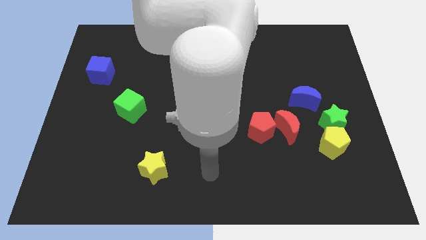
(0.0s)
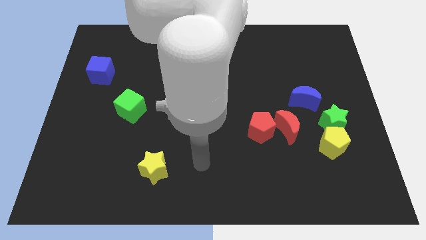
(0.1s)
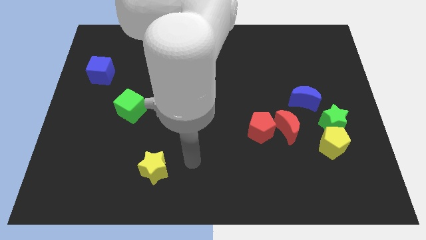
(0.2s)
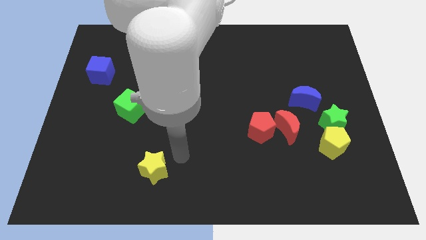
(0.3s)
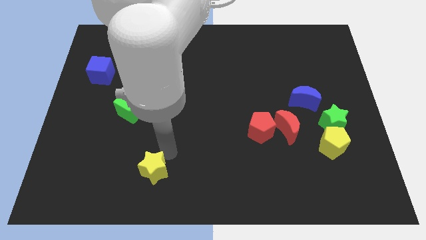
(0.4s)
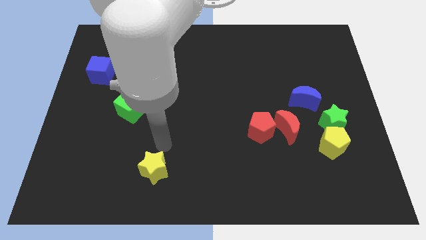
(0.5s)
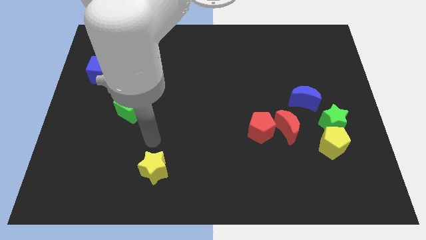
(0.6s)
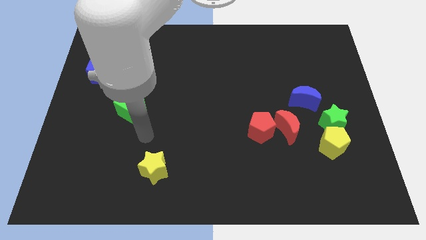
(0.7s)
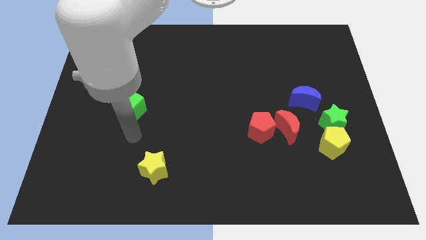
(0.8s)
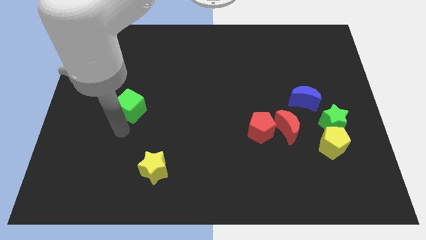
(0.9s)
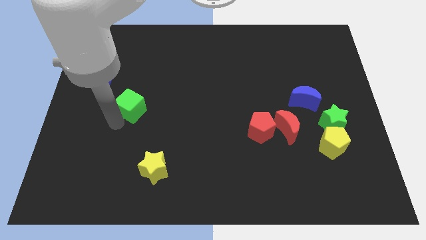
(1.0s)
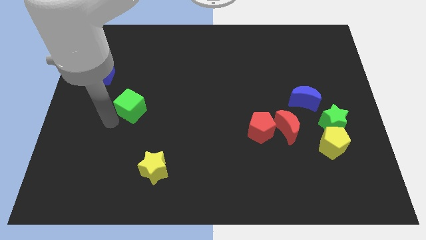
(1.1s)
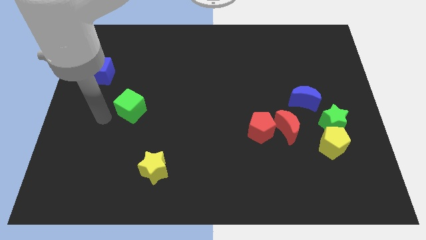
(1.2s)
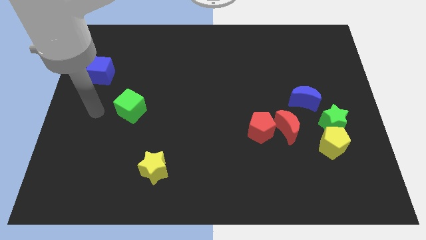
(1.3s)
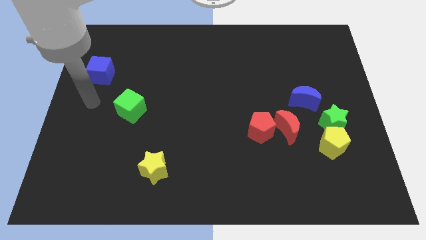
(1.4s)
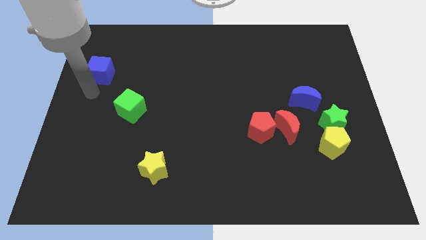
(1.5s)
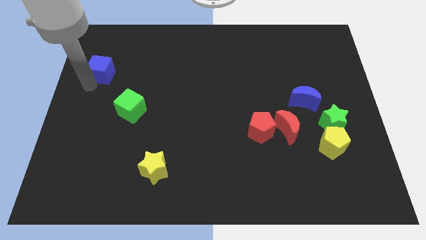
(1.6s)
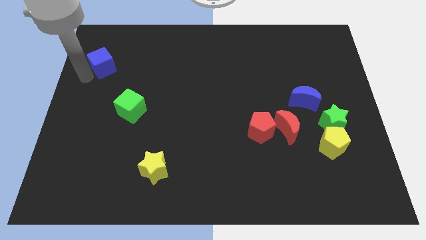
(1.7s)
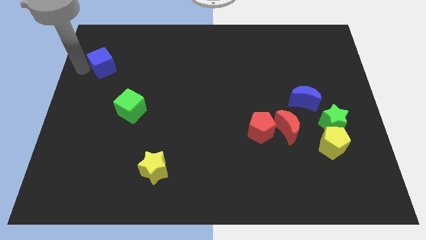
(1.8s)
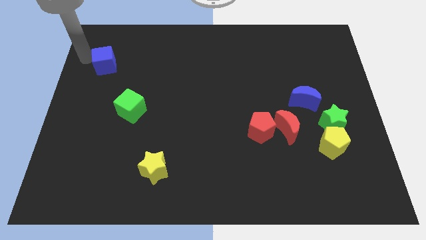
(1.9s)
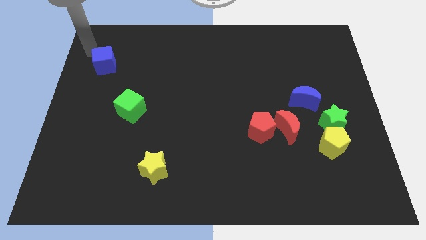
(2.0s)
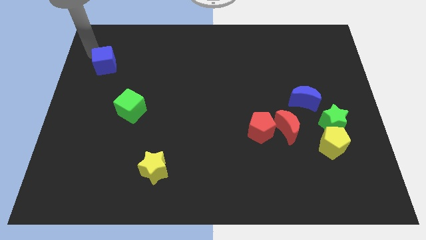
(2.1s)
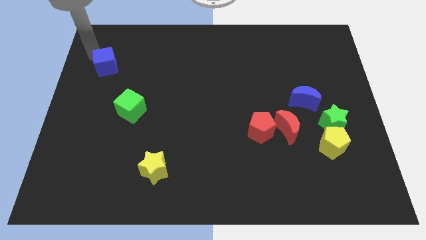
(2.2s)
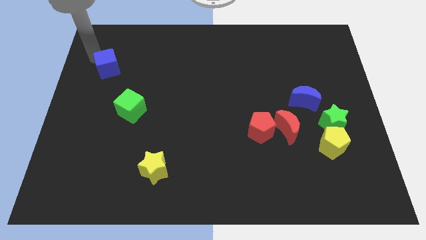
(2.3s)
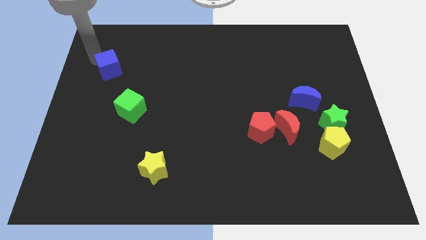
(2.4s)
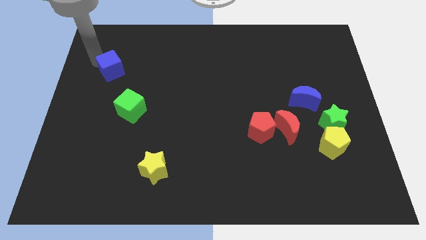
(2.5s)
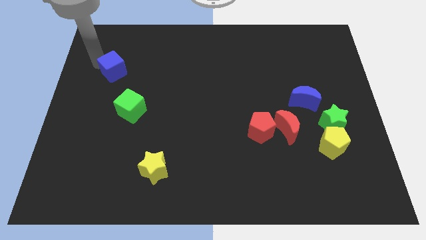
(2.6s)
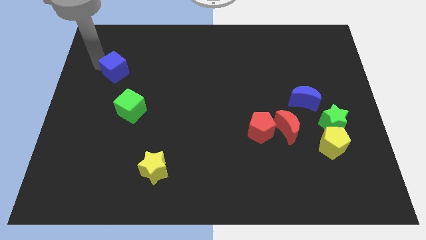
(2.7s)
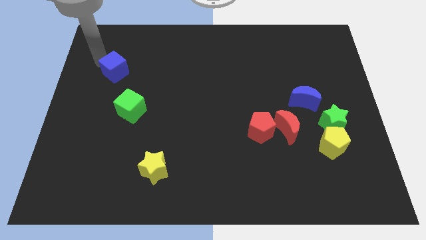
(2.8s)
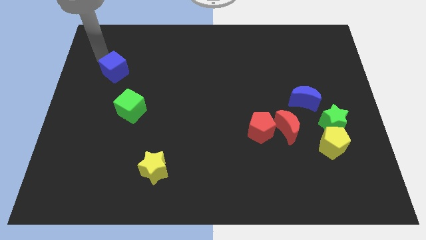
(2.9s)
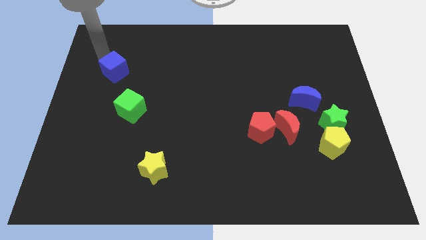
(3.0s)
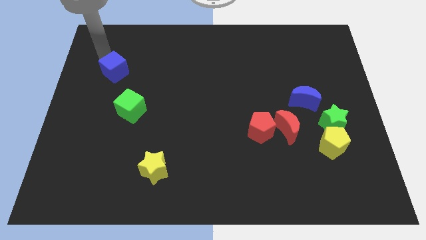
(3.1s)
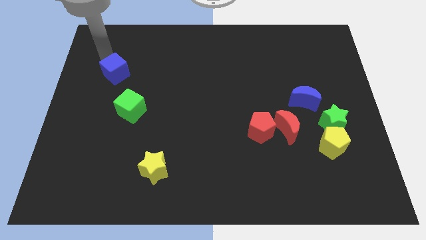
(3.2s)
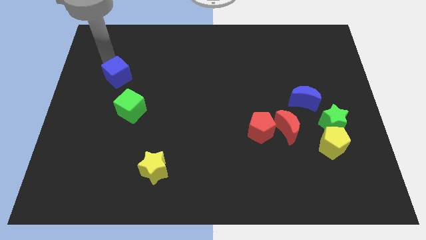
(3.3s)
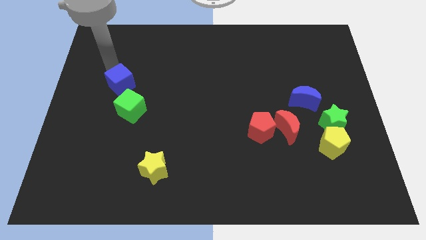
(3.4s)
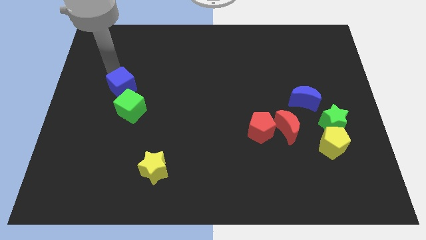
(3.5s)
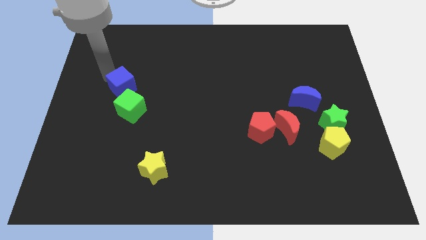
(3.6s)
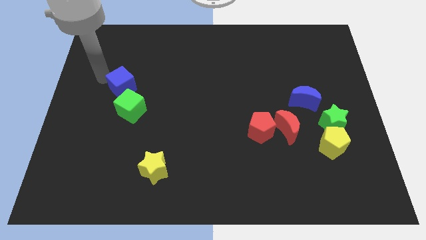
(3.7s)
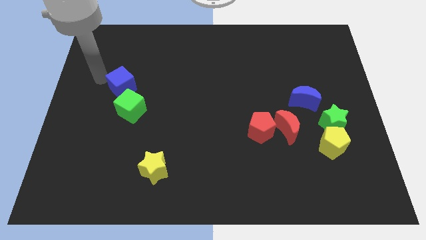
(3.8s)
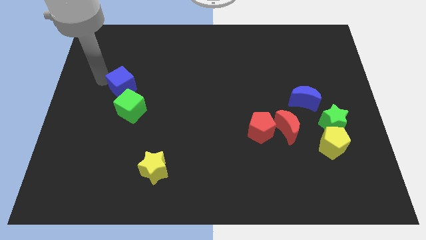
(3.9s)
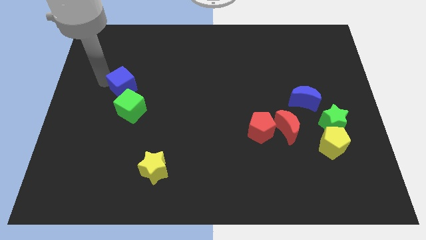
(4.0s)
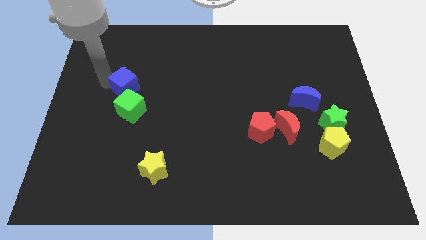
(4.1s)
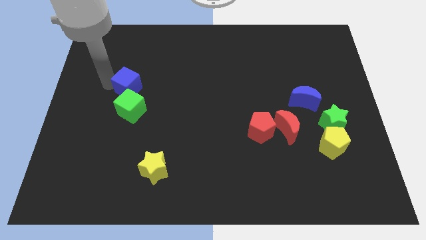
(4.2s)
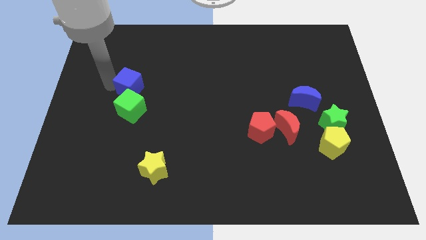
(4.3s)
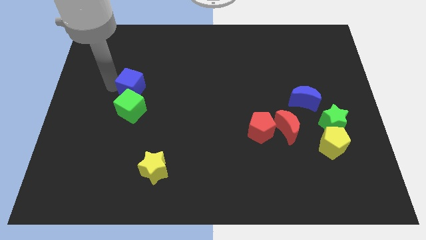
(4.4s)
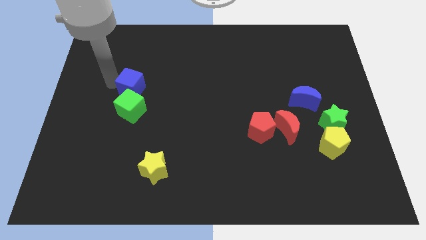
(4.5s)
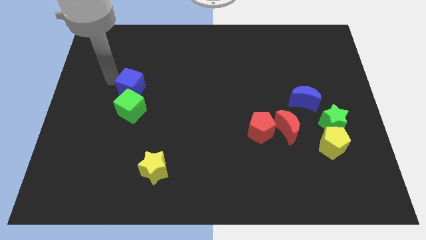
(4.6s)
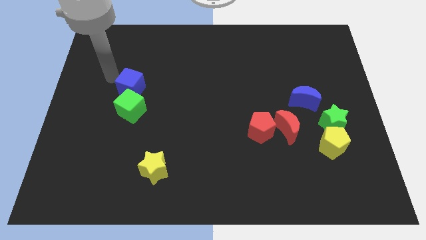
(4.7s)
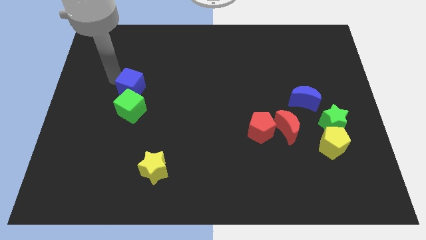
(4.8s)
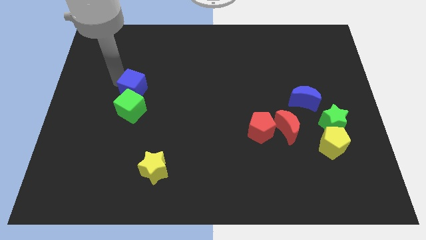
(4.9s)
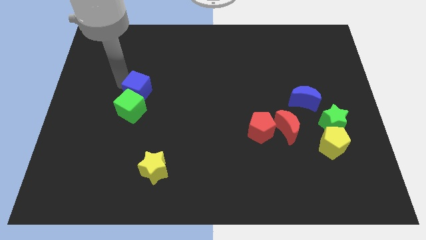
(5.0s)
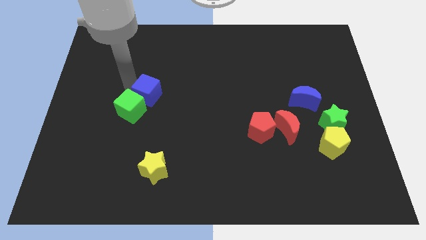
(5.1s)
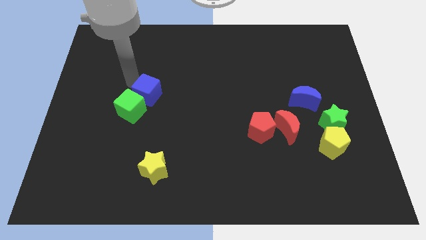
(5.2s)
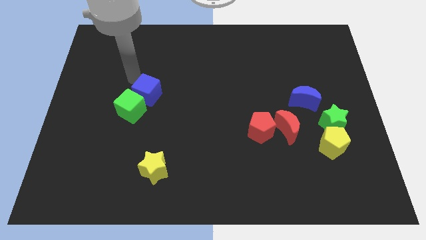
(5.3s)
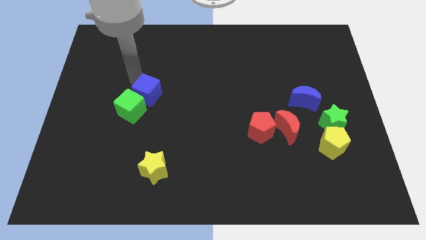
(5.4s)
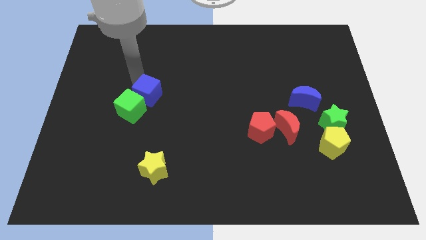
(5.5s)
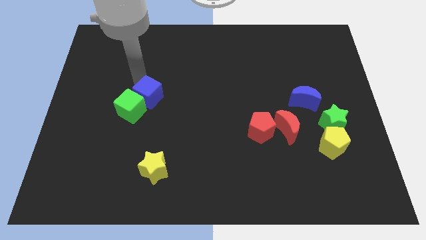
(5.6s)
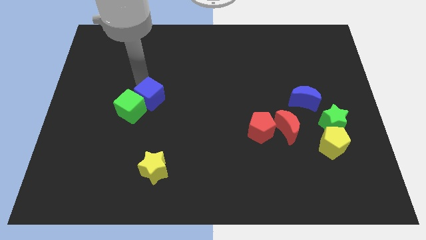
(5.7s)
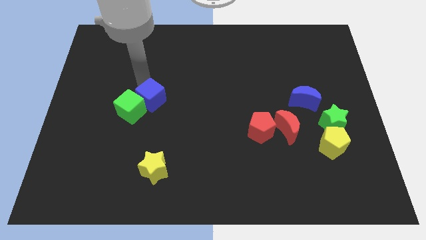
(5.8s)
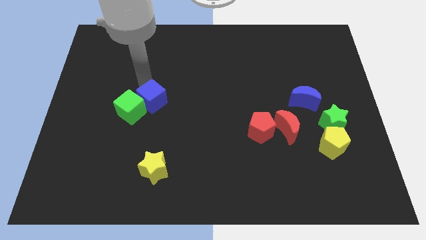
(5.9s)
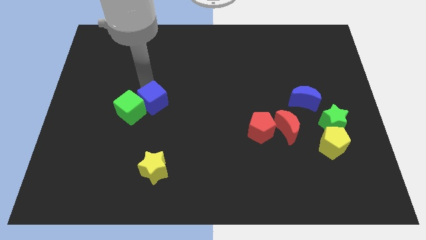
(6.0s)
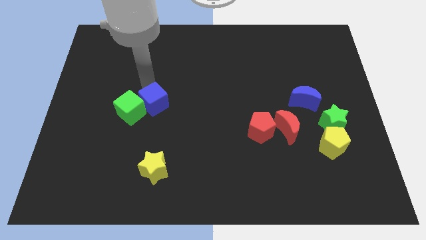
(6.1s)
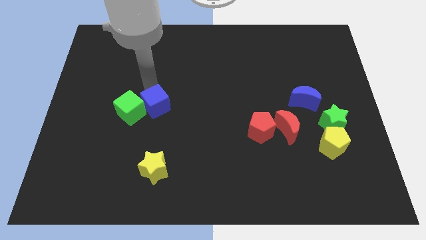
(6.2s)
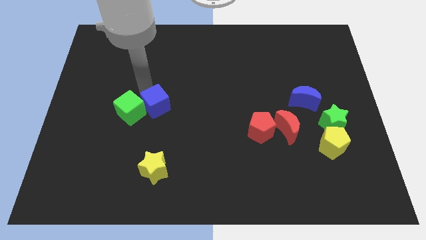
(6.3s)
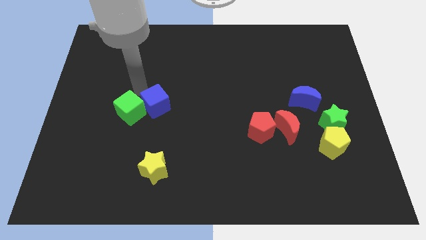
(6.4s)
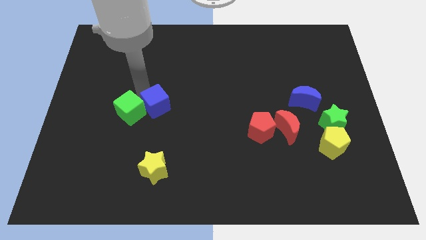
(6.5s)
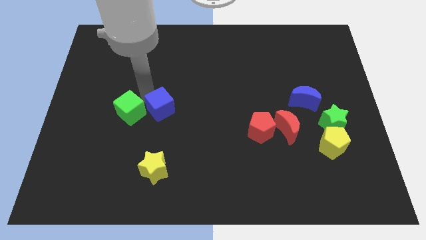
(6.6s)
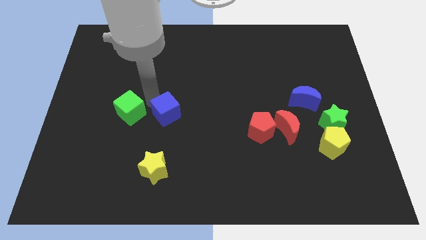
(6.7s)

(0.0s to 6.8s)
push the blue cube down and right diagonally

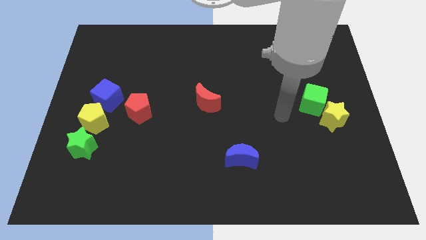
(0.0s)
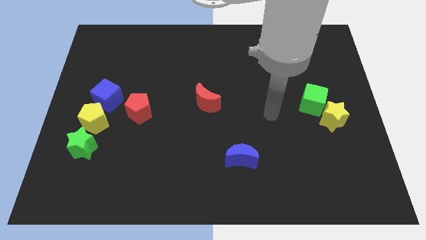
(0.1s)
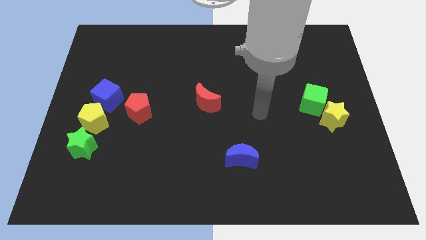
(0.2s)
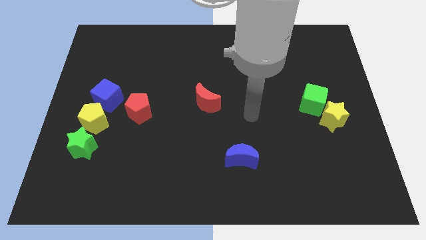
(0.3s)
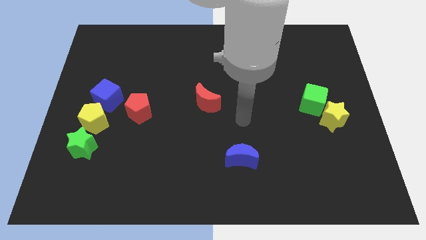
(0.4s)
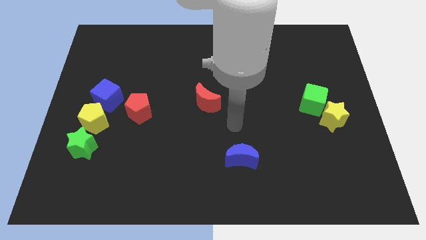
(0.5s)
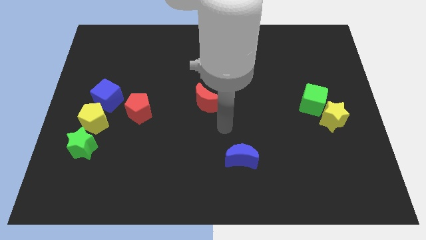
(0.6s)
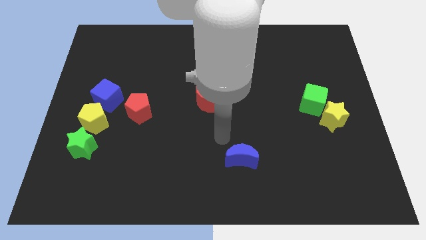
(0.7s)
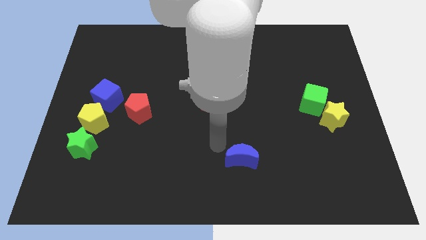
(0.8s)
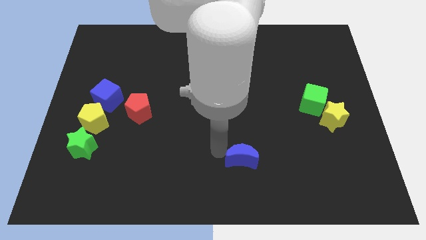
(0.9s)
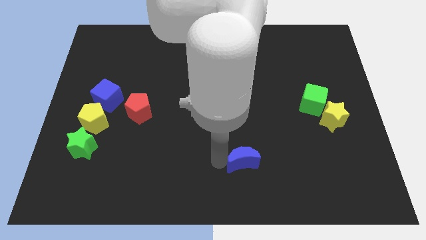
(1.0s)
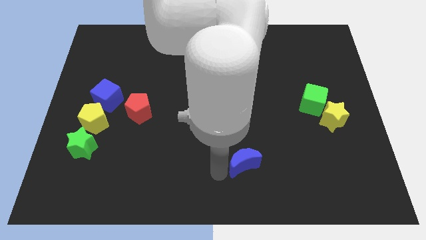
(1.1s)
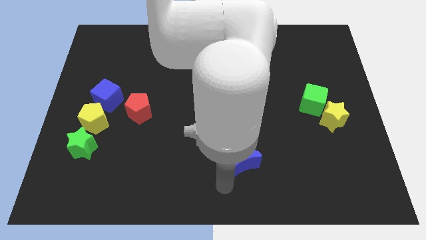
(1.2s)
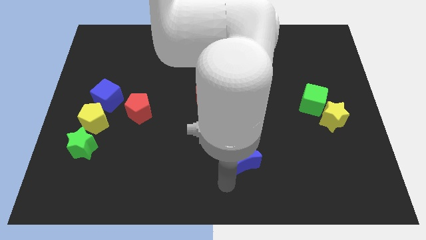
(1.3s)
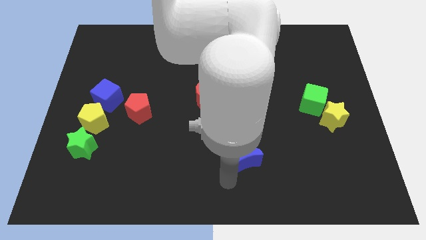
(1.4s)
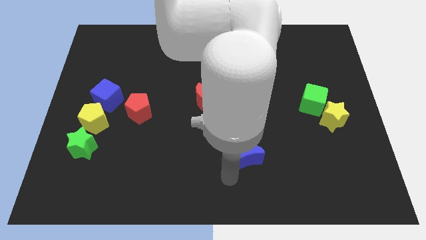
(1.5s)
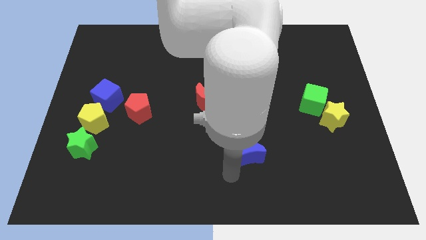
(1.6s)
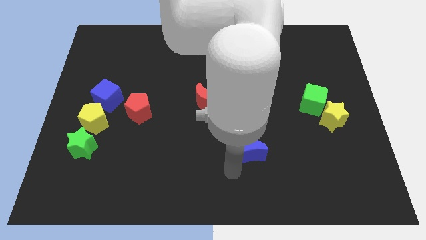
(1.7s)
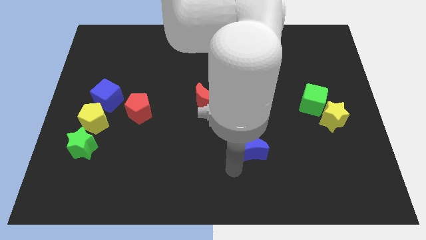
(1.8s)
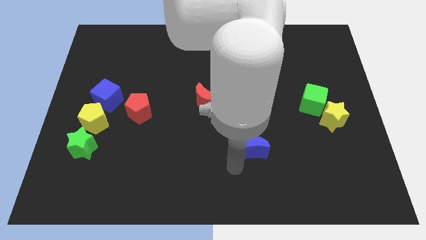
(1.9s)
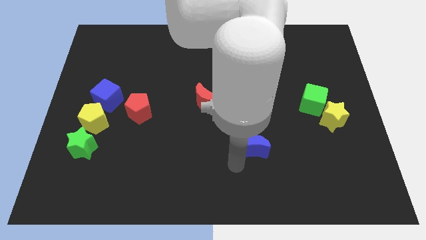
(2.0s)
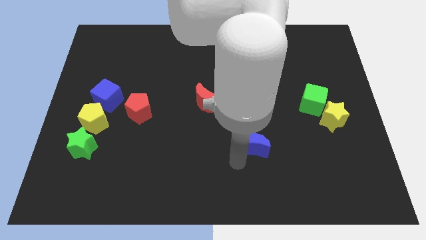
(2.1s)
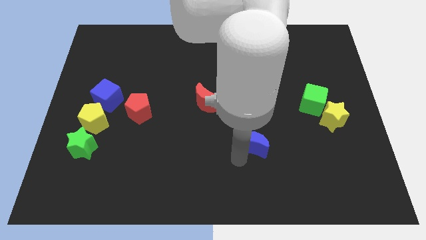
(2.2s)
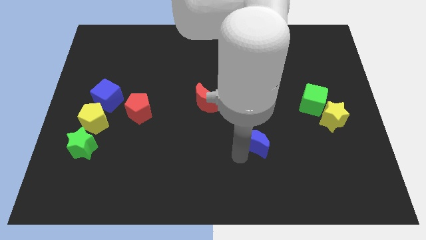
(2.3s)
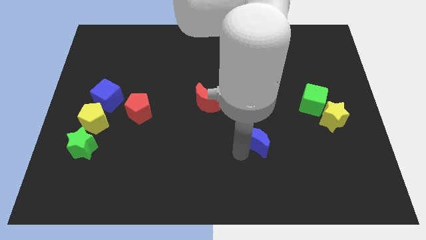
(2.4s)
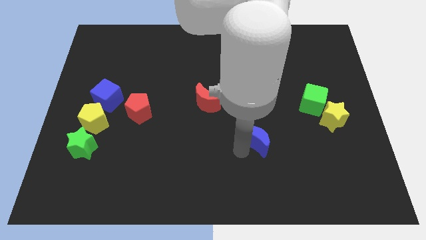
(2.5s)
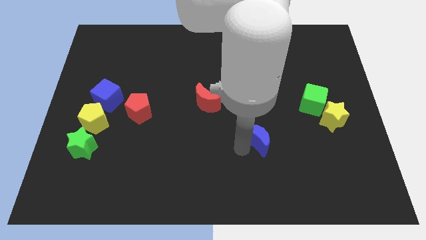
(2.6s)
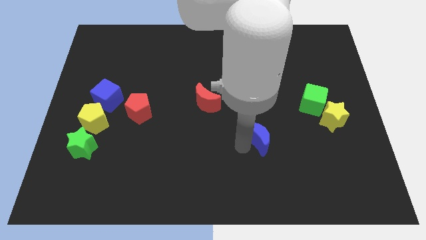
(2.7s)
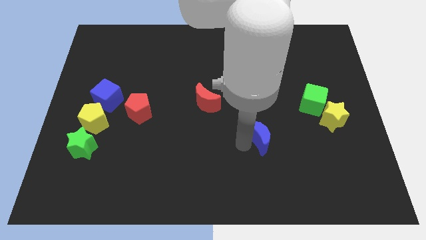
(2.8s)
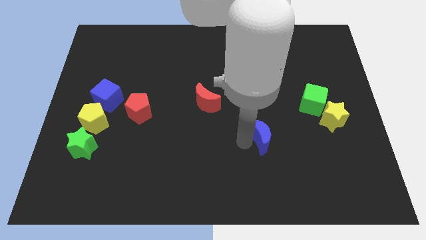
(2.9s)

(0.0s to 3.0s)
slightly push the blue moon up and right diagonally
